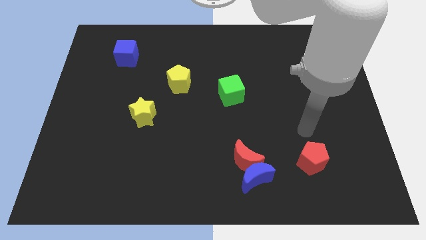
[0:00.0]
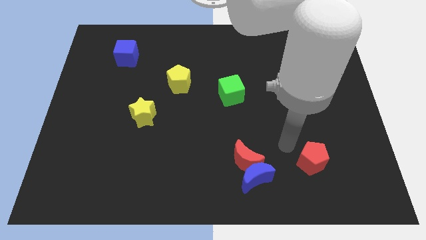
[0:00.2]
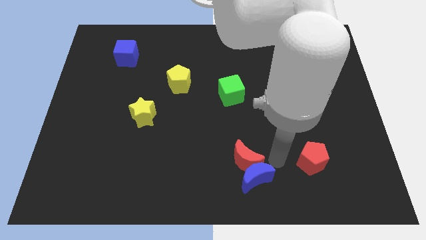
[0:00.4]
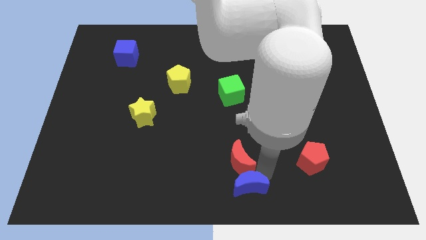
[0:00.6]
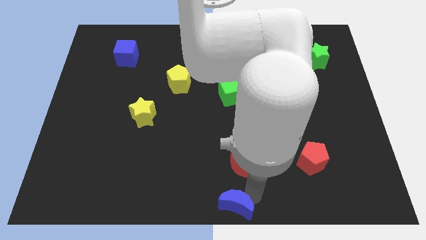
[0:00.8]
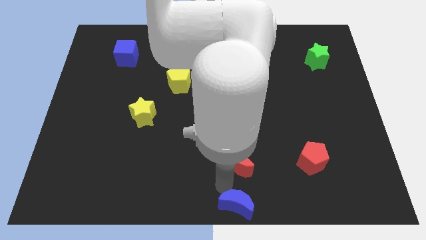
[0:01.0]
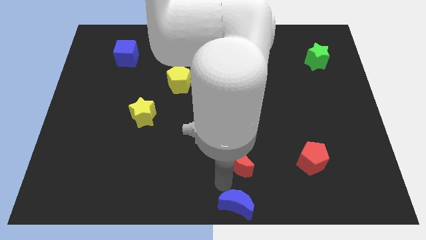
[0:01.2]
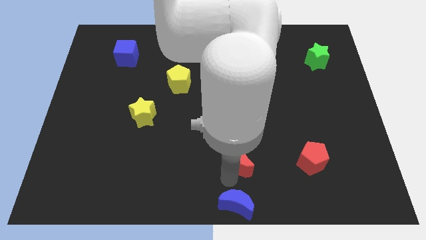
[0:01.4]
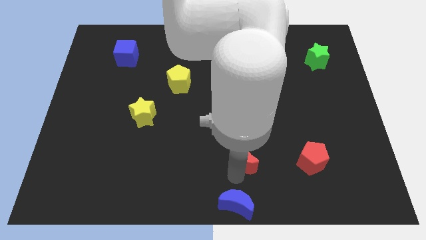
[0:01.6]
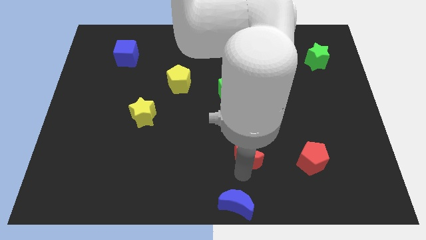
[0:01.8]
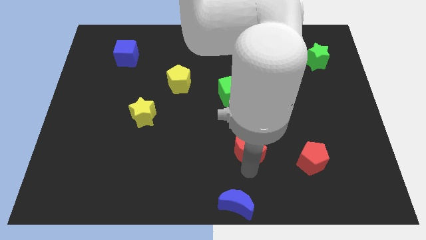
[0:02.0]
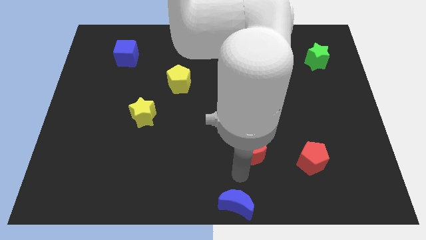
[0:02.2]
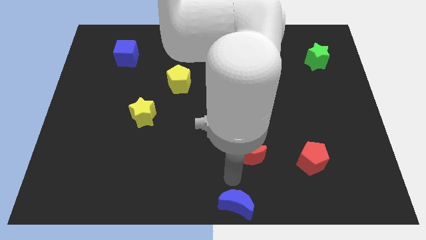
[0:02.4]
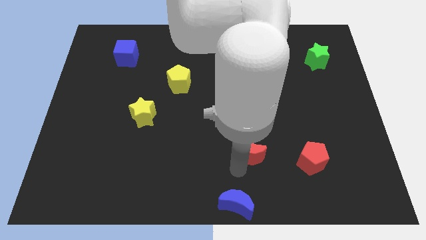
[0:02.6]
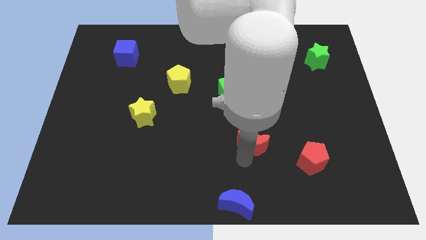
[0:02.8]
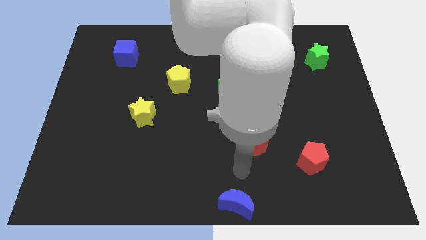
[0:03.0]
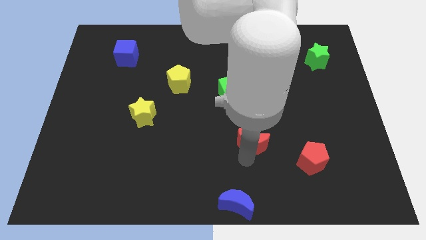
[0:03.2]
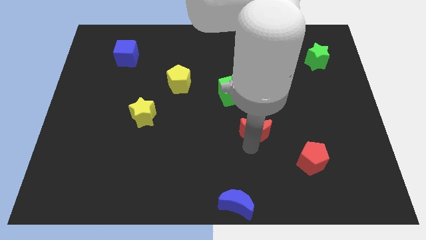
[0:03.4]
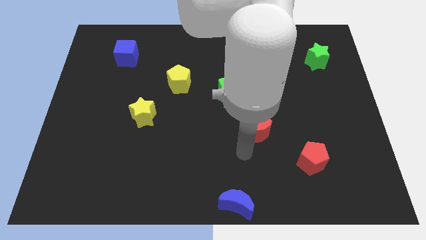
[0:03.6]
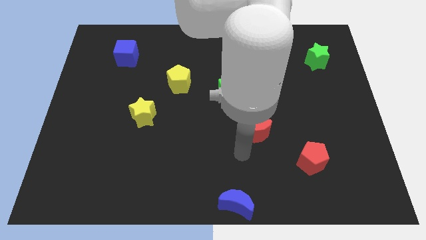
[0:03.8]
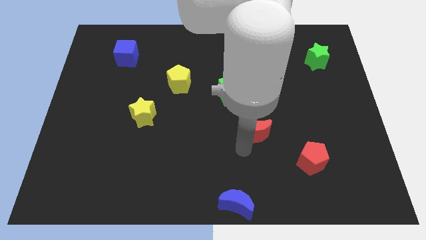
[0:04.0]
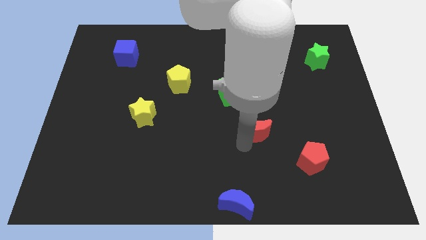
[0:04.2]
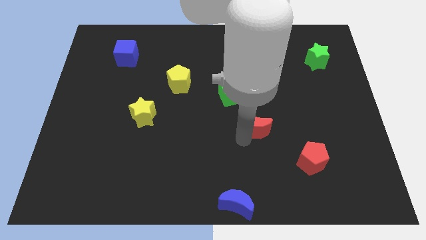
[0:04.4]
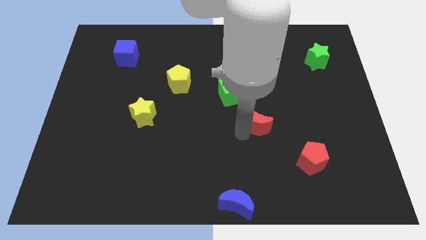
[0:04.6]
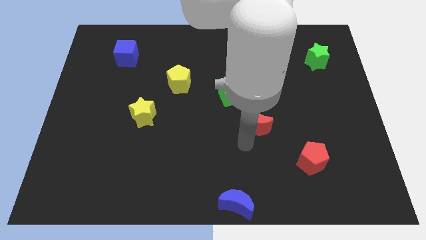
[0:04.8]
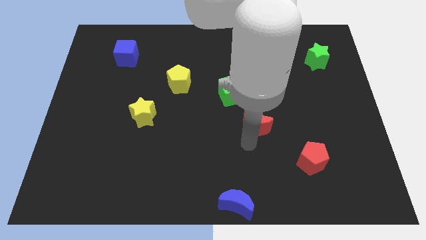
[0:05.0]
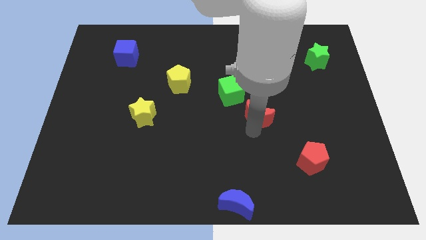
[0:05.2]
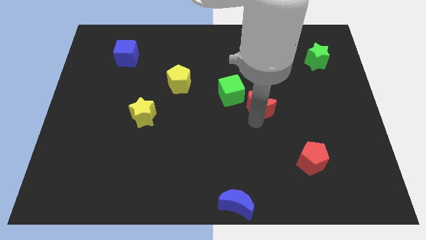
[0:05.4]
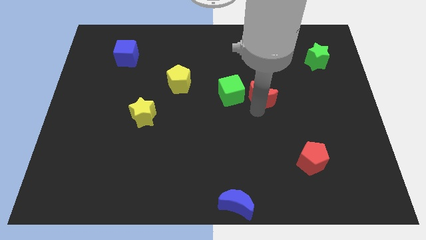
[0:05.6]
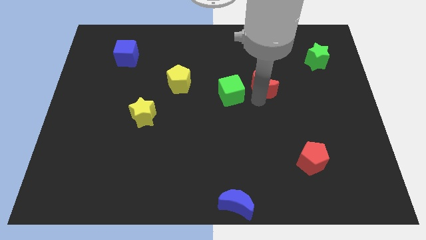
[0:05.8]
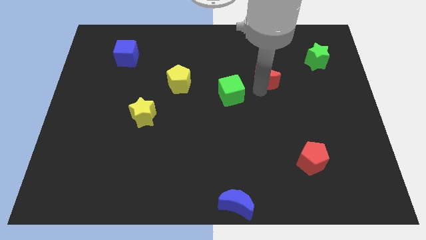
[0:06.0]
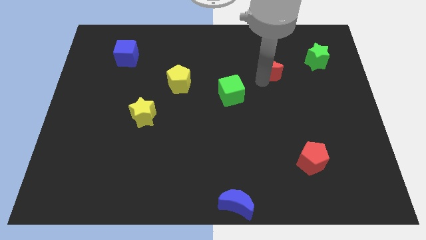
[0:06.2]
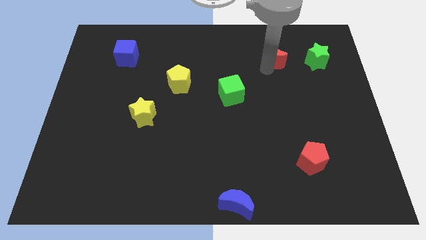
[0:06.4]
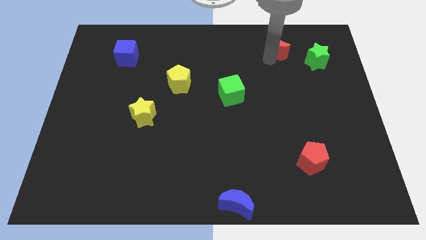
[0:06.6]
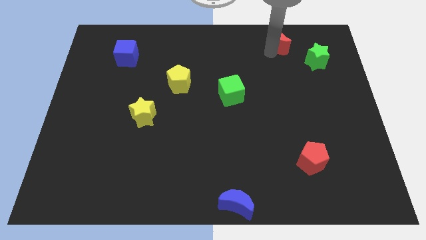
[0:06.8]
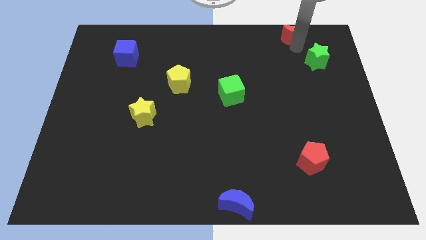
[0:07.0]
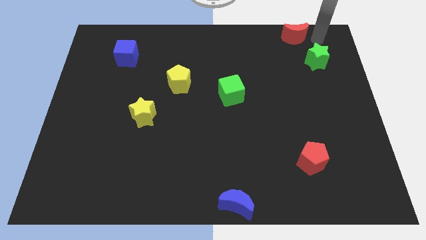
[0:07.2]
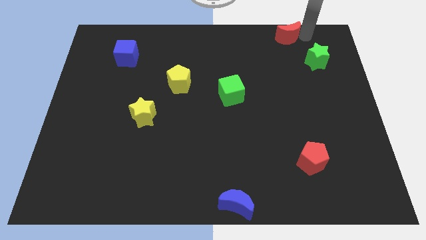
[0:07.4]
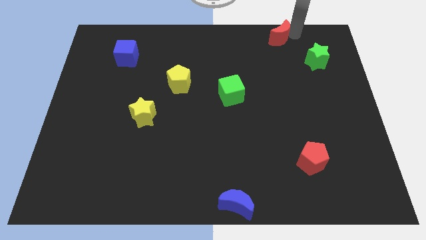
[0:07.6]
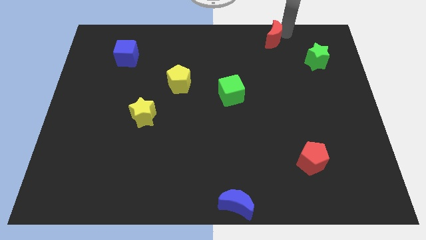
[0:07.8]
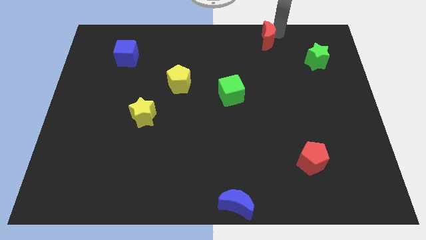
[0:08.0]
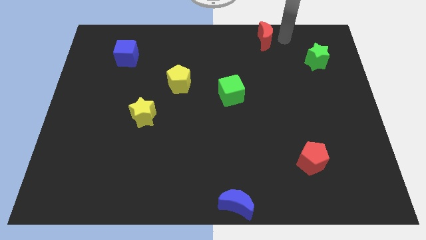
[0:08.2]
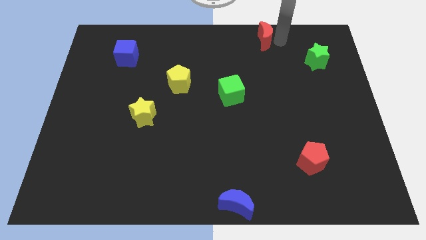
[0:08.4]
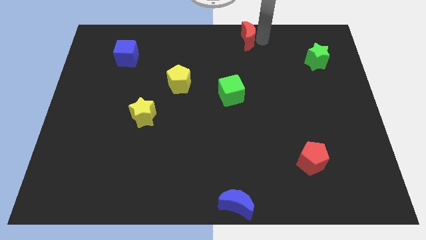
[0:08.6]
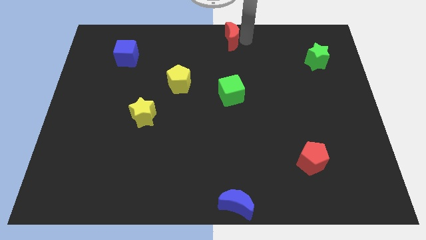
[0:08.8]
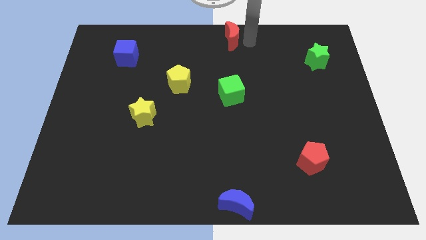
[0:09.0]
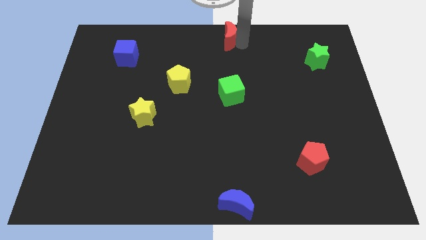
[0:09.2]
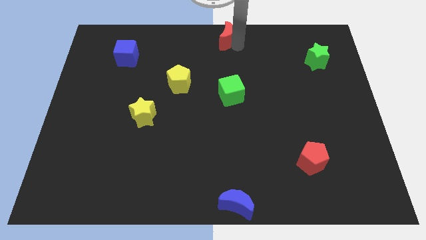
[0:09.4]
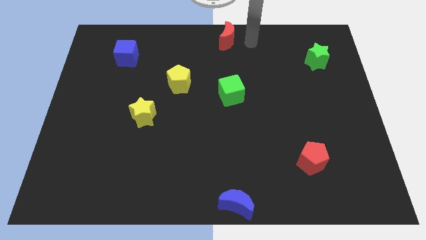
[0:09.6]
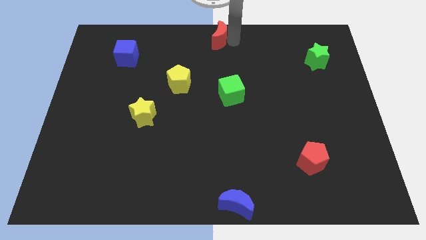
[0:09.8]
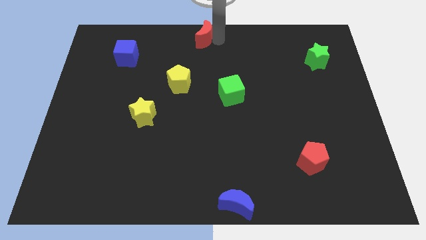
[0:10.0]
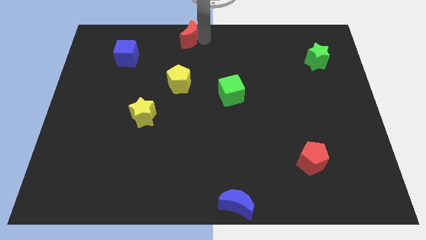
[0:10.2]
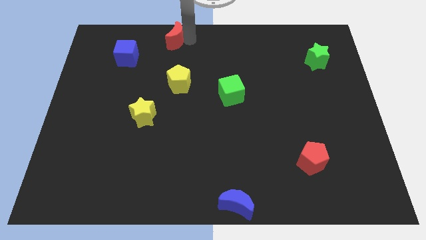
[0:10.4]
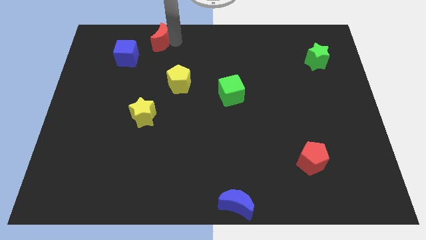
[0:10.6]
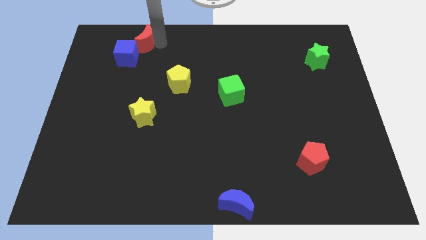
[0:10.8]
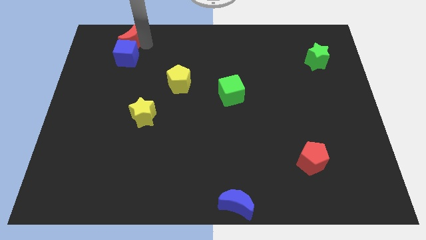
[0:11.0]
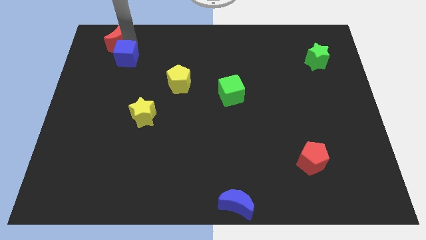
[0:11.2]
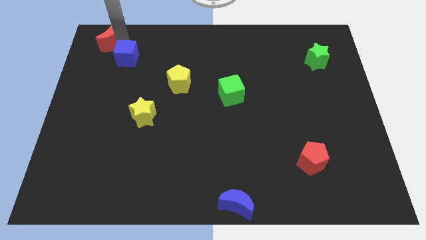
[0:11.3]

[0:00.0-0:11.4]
move the red moon to the top left

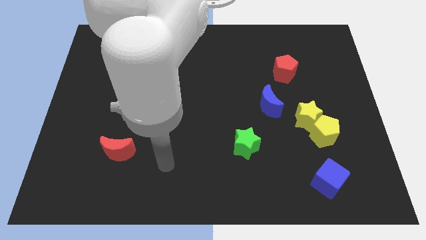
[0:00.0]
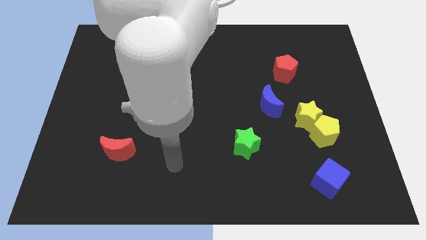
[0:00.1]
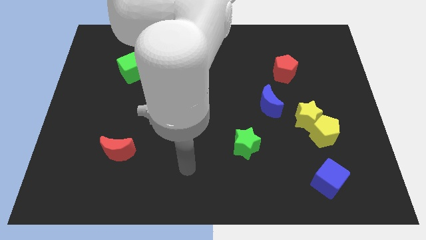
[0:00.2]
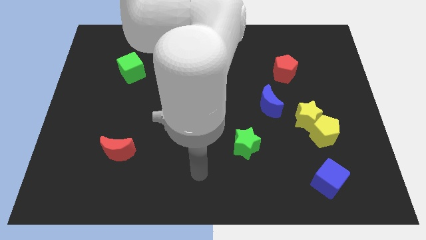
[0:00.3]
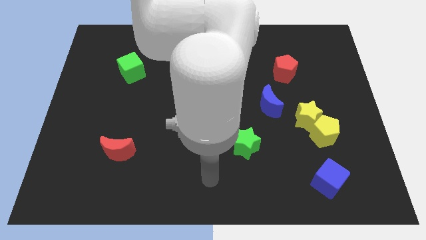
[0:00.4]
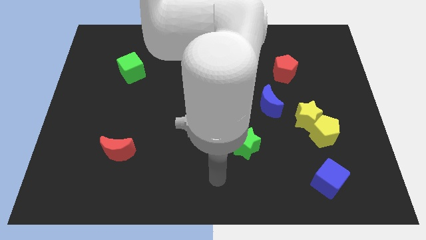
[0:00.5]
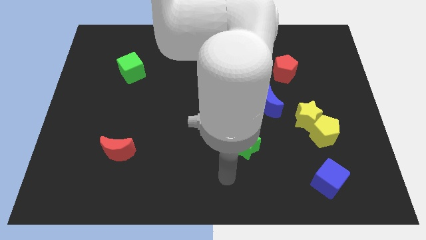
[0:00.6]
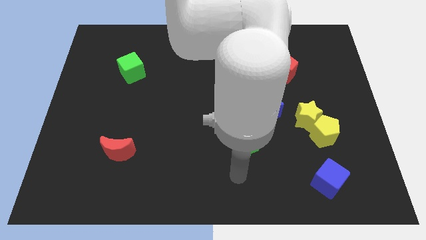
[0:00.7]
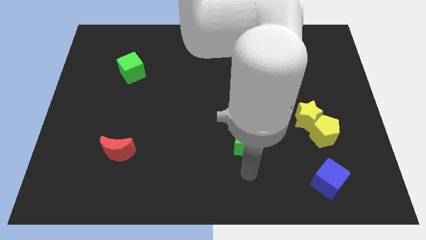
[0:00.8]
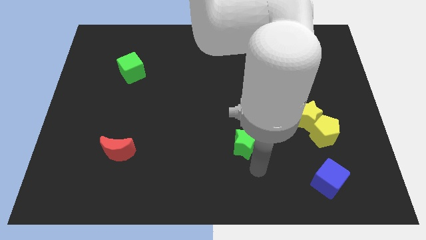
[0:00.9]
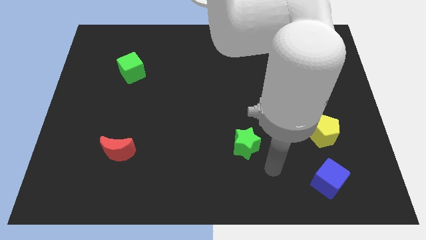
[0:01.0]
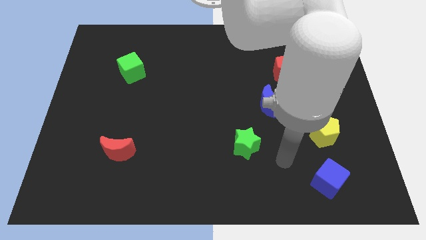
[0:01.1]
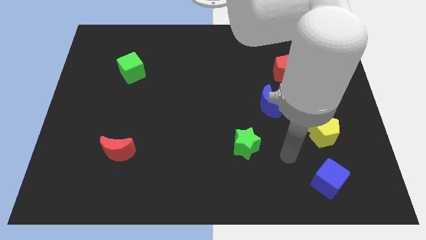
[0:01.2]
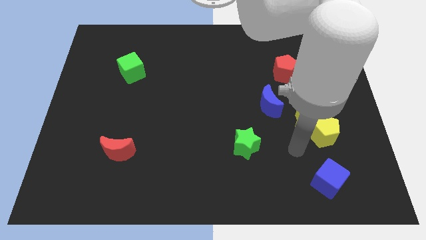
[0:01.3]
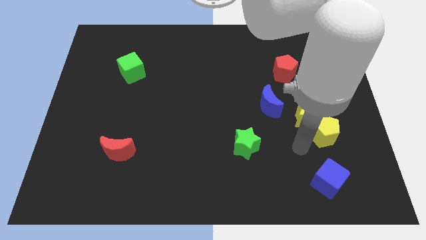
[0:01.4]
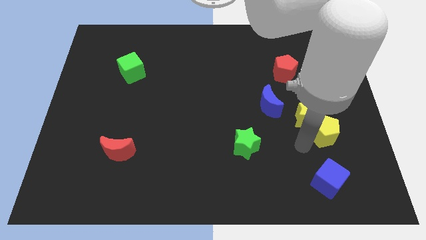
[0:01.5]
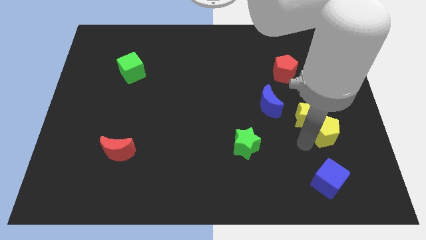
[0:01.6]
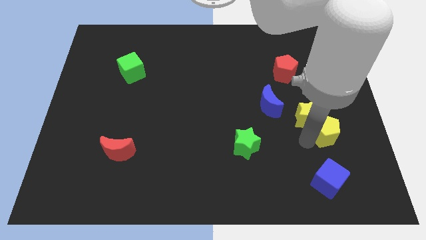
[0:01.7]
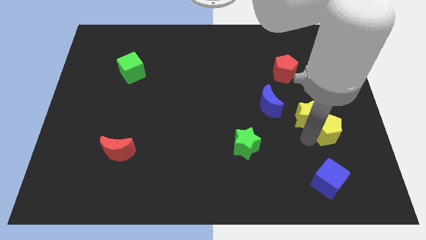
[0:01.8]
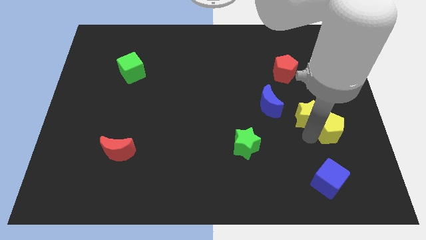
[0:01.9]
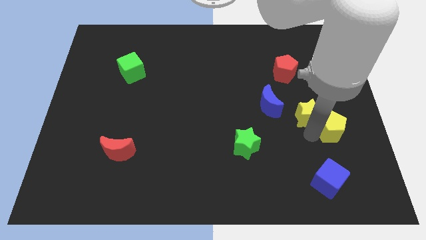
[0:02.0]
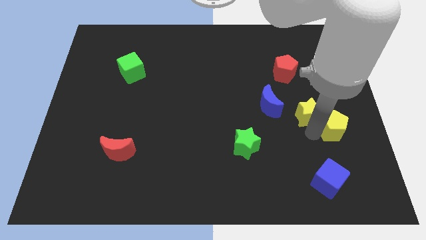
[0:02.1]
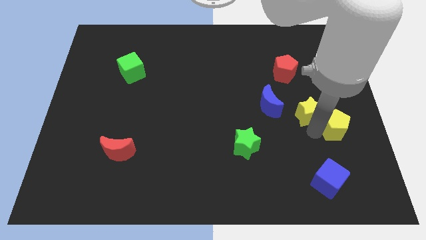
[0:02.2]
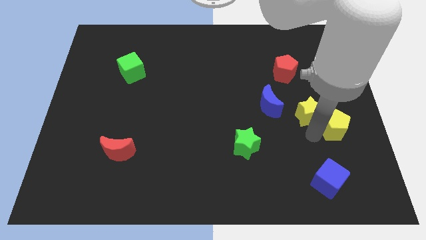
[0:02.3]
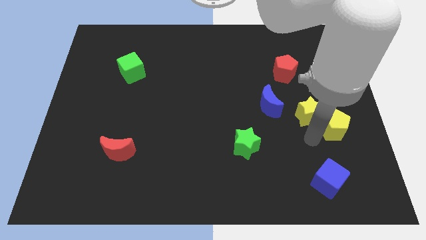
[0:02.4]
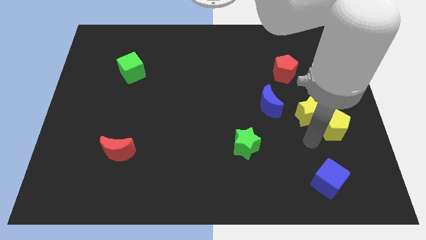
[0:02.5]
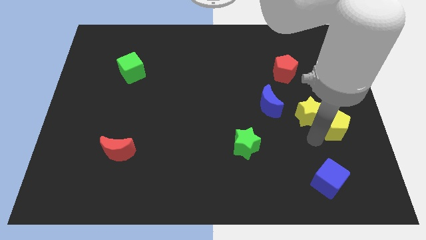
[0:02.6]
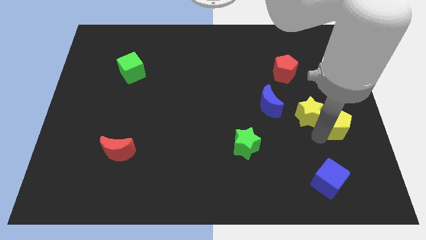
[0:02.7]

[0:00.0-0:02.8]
slide the yellow pentagon to the right side
